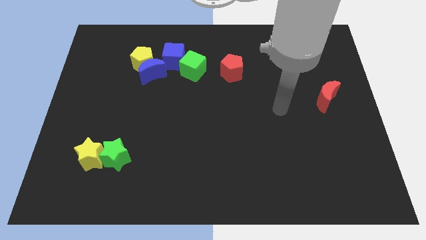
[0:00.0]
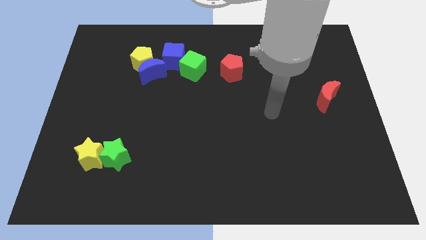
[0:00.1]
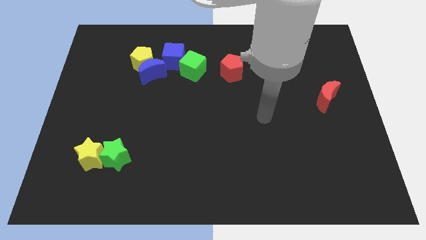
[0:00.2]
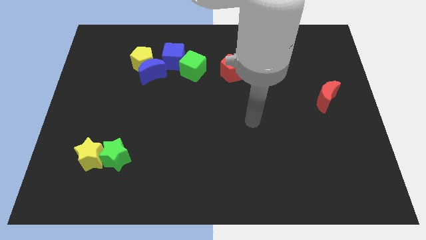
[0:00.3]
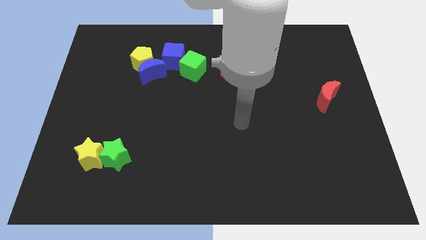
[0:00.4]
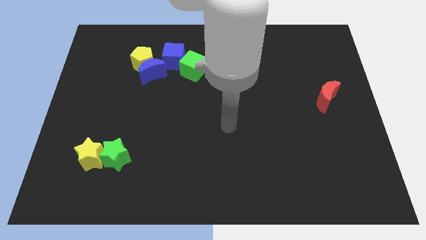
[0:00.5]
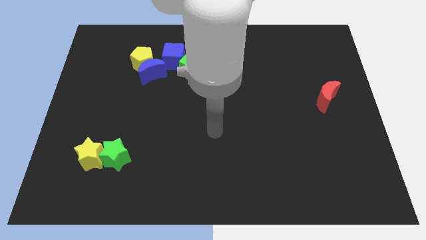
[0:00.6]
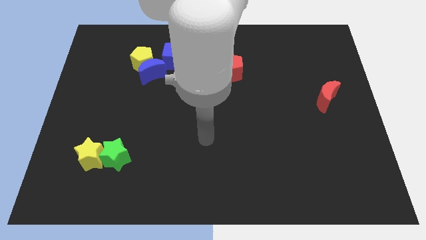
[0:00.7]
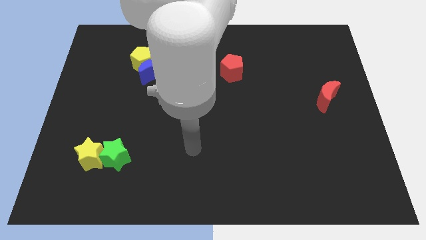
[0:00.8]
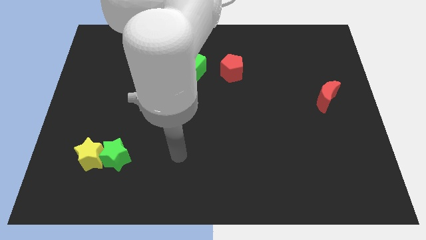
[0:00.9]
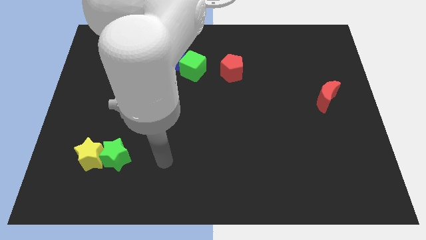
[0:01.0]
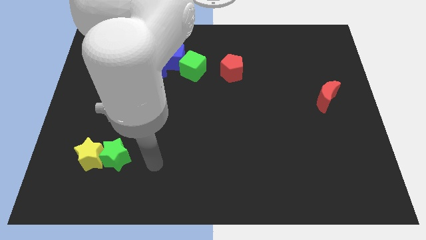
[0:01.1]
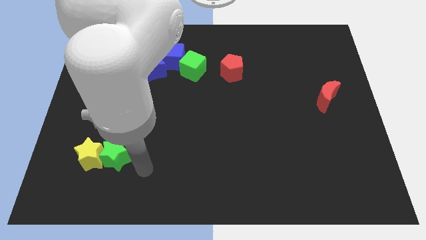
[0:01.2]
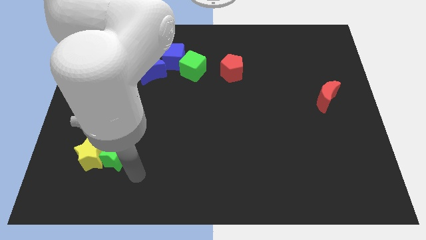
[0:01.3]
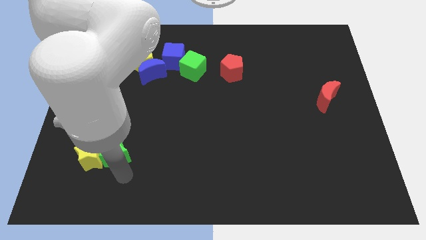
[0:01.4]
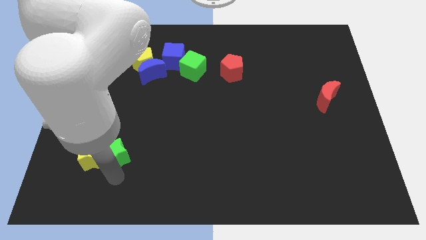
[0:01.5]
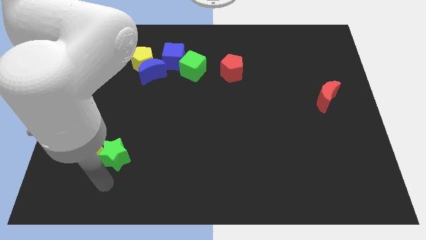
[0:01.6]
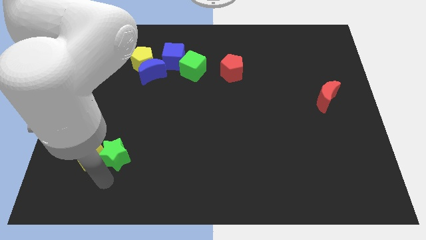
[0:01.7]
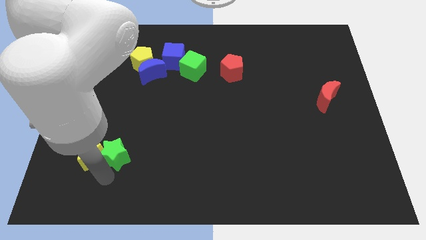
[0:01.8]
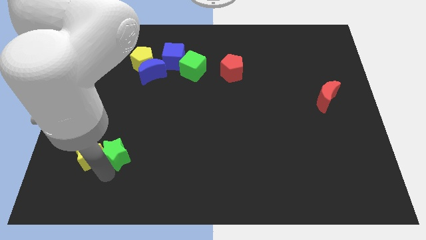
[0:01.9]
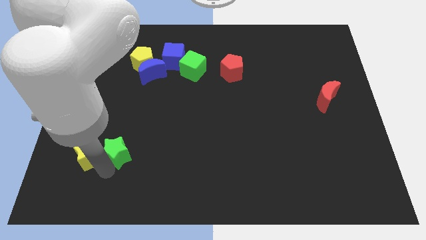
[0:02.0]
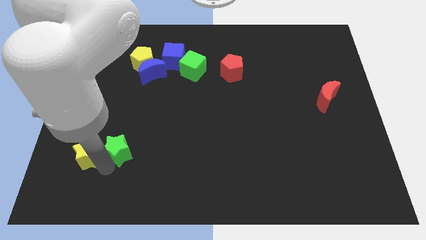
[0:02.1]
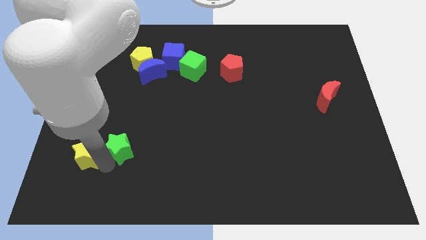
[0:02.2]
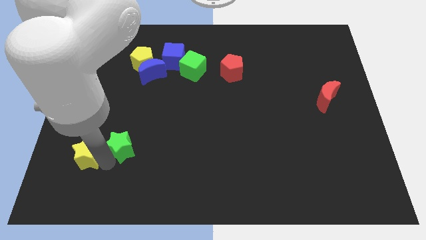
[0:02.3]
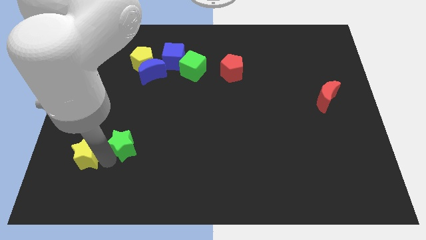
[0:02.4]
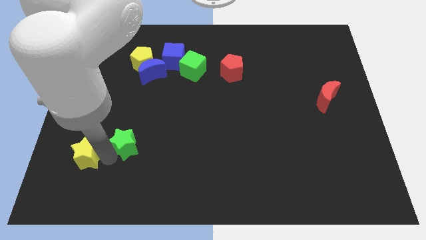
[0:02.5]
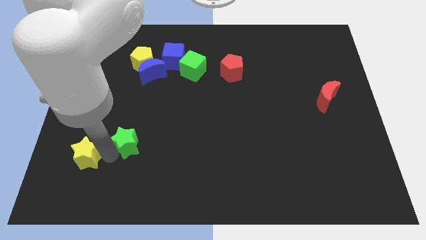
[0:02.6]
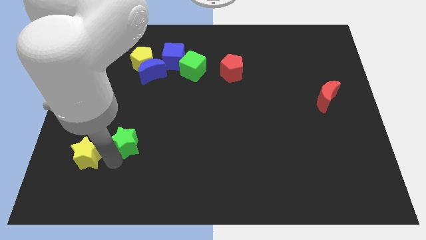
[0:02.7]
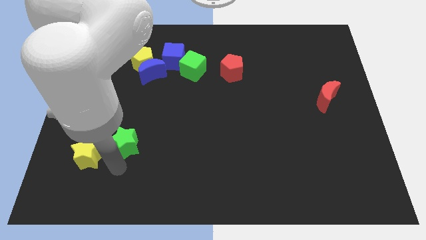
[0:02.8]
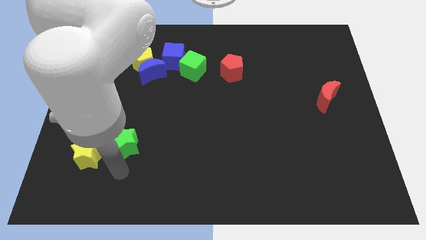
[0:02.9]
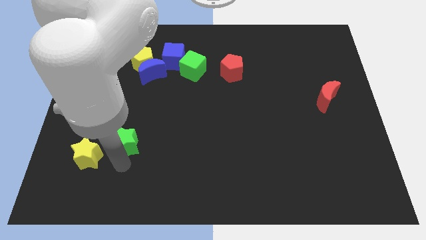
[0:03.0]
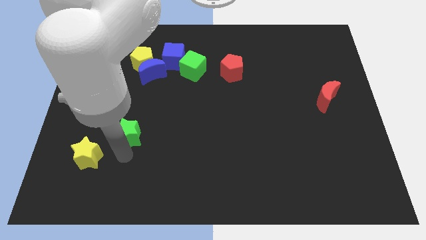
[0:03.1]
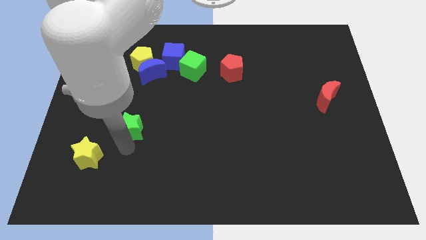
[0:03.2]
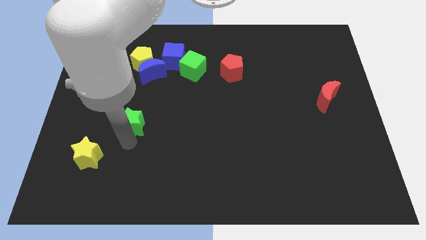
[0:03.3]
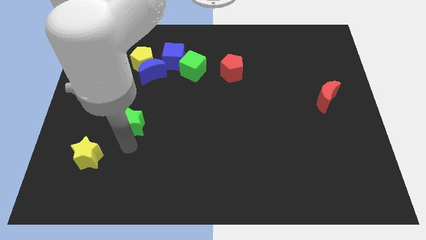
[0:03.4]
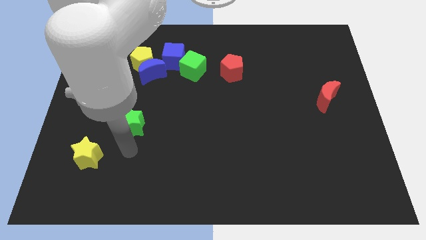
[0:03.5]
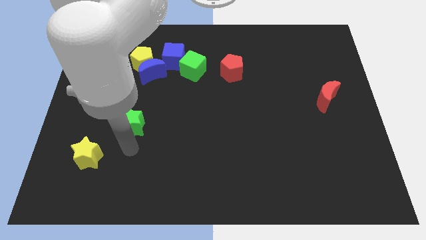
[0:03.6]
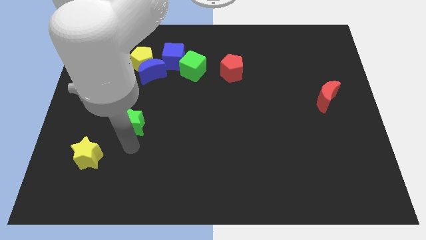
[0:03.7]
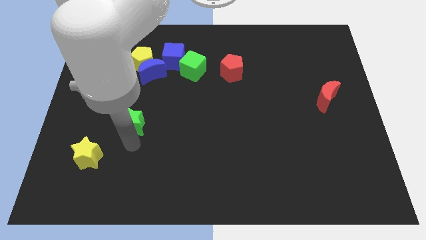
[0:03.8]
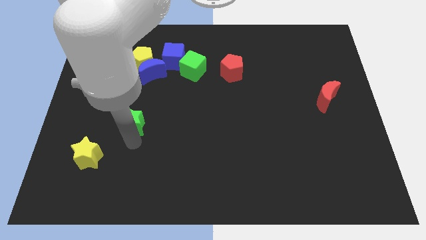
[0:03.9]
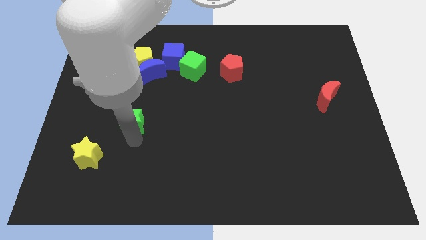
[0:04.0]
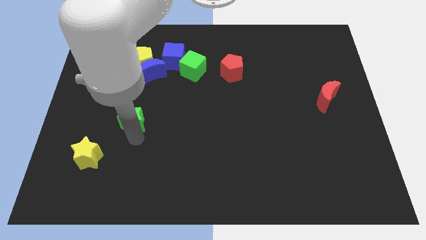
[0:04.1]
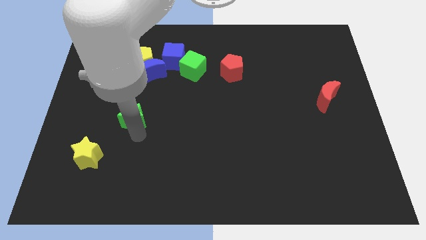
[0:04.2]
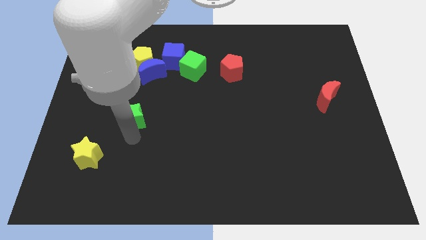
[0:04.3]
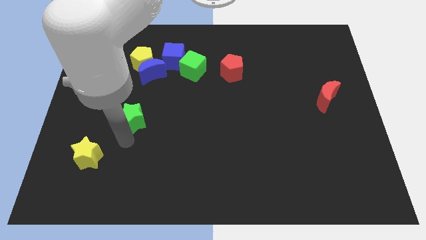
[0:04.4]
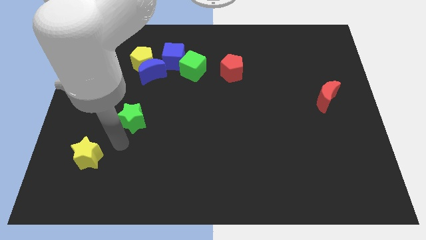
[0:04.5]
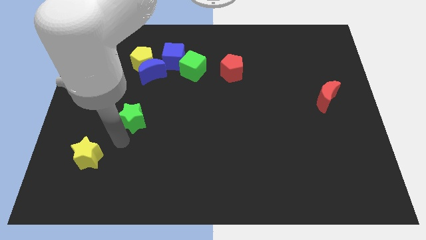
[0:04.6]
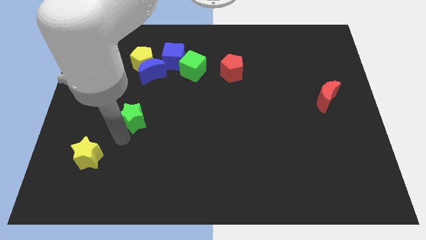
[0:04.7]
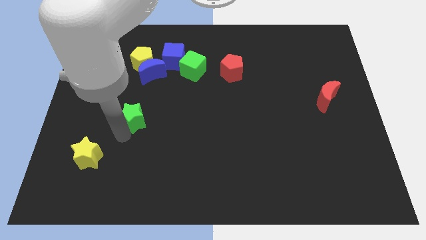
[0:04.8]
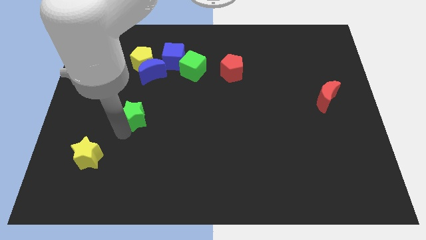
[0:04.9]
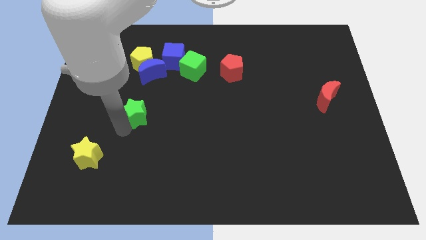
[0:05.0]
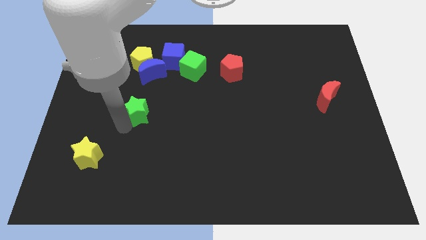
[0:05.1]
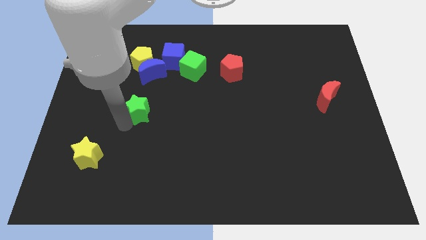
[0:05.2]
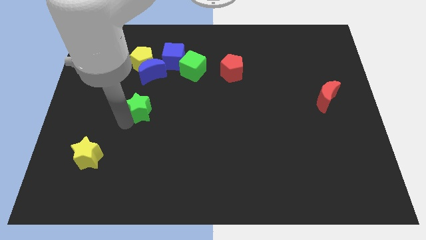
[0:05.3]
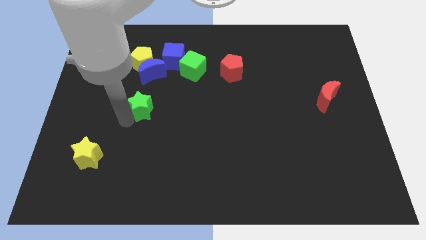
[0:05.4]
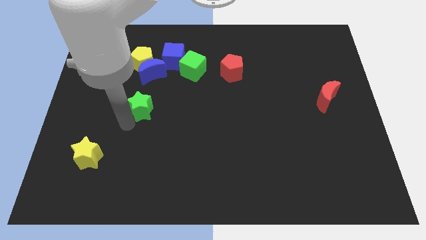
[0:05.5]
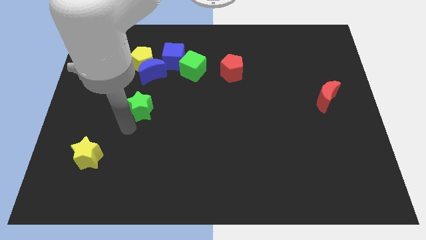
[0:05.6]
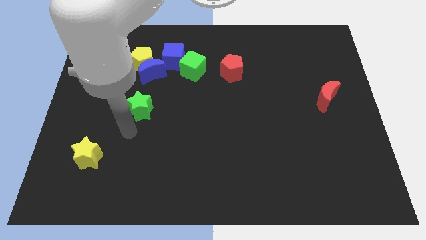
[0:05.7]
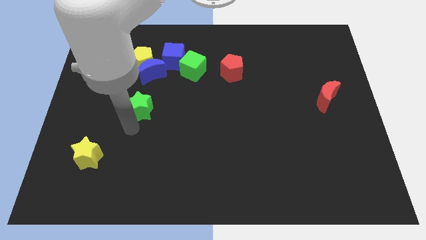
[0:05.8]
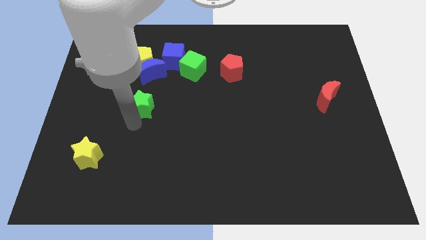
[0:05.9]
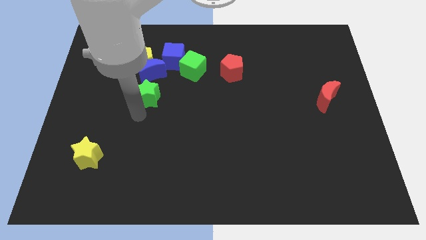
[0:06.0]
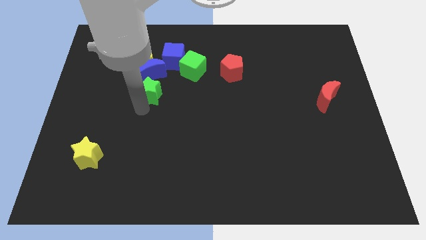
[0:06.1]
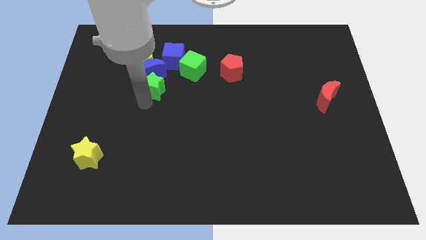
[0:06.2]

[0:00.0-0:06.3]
move the green star to the bottom right of the yellow pentagon
